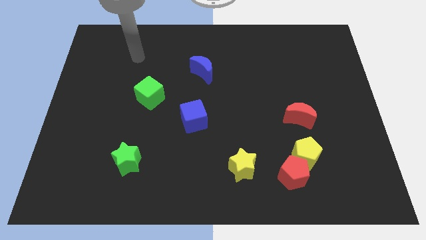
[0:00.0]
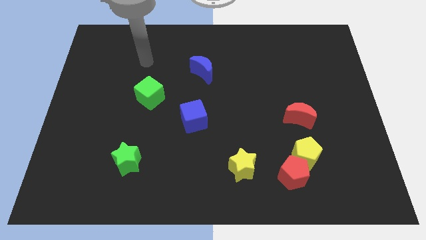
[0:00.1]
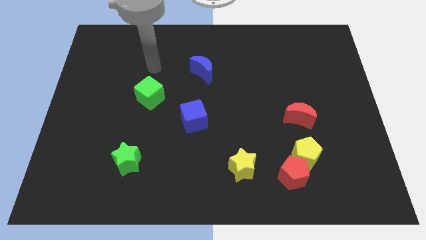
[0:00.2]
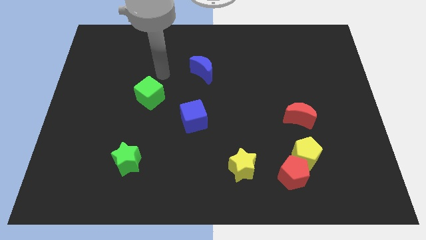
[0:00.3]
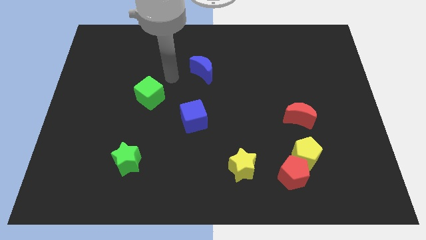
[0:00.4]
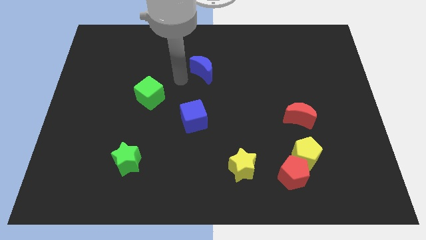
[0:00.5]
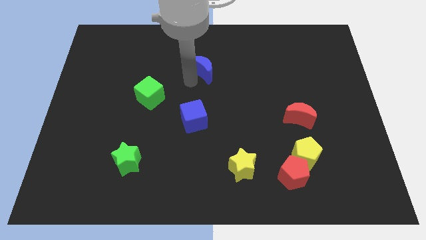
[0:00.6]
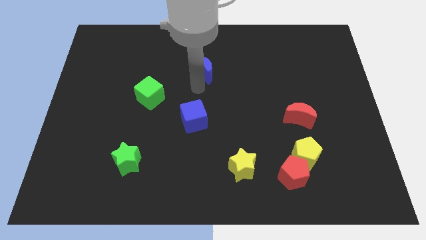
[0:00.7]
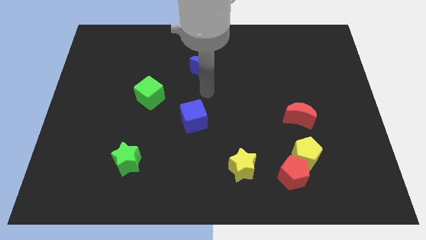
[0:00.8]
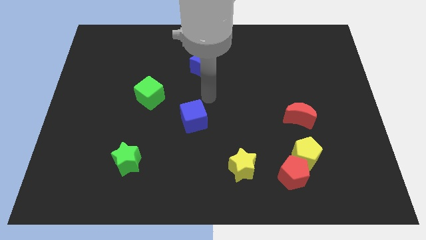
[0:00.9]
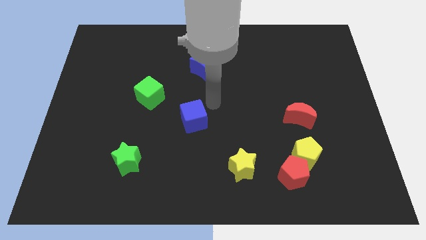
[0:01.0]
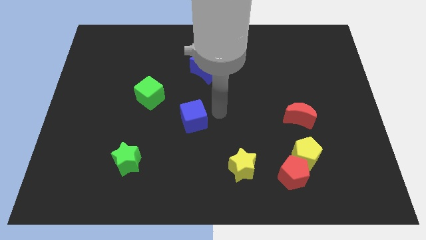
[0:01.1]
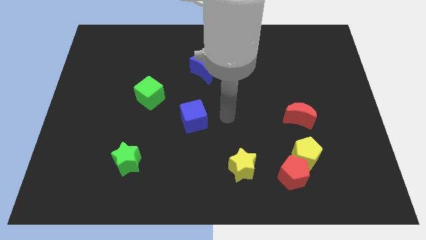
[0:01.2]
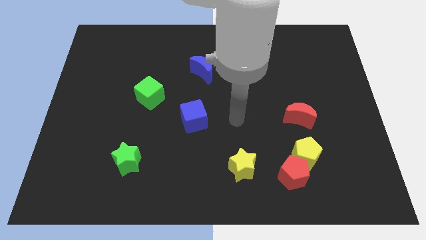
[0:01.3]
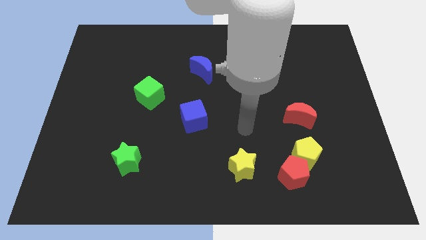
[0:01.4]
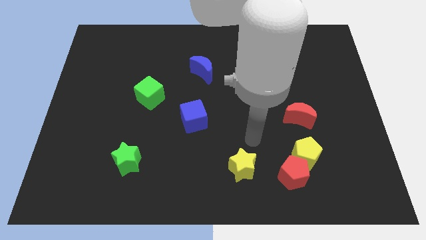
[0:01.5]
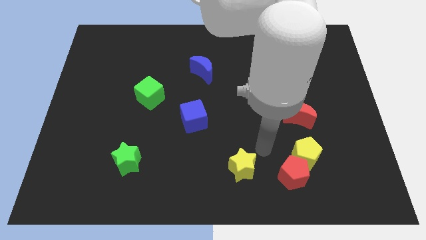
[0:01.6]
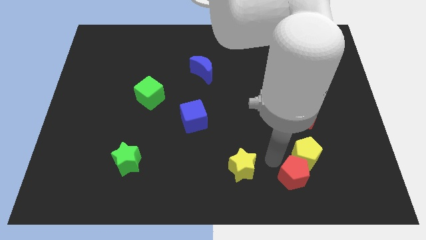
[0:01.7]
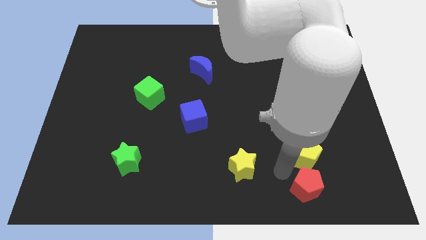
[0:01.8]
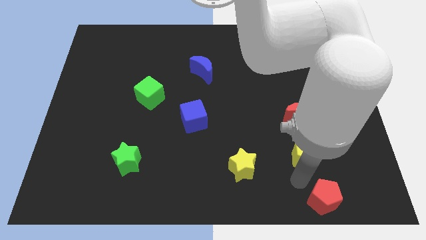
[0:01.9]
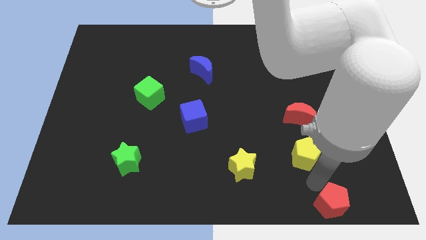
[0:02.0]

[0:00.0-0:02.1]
separate the yellow pentagon from the red pentagon

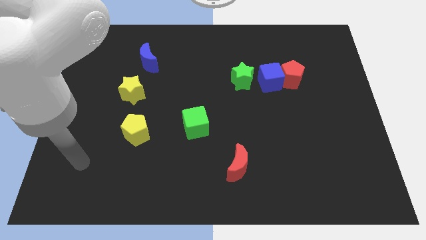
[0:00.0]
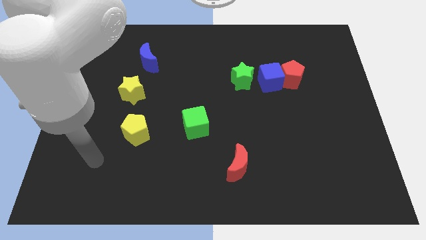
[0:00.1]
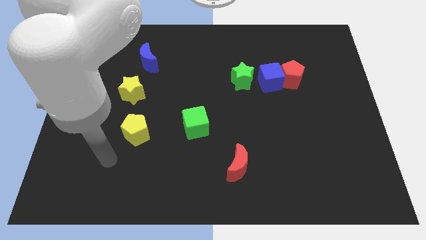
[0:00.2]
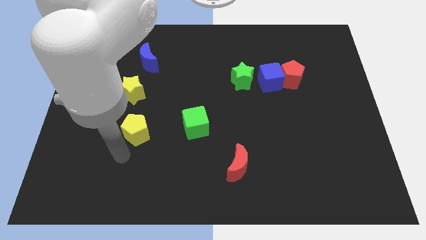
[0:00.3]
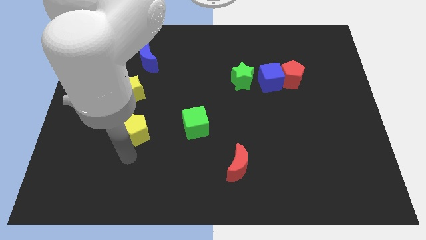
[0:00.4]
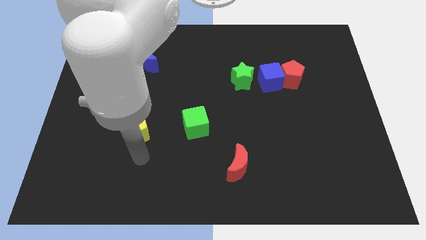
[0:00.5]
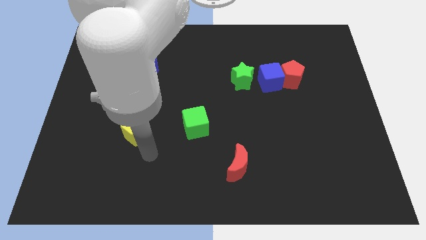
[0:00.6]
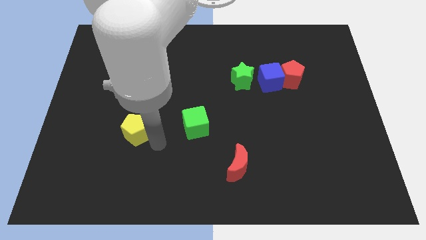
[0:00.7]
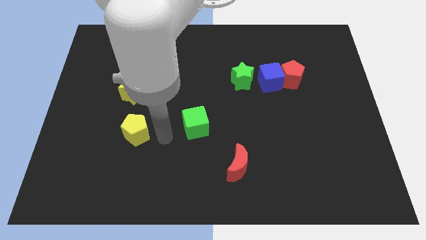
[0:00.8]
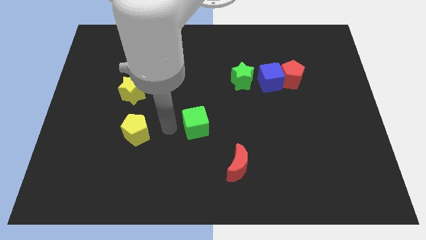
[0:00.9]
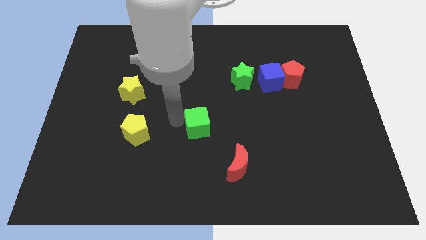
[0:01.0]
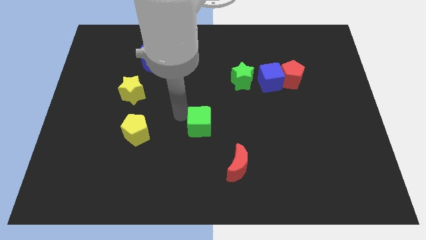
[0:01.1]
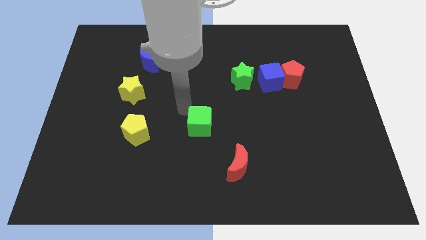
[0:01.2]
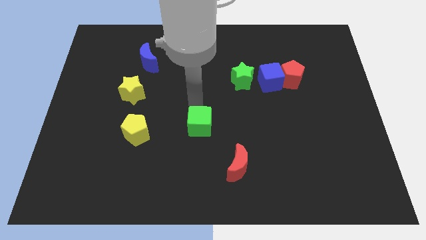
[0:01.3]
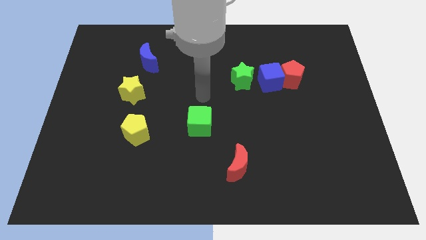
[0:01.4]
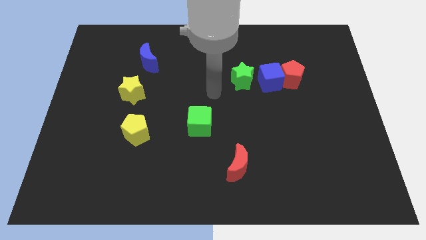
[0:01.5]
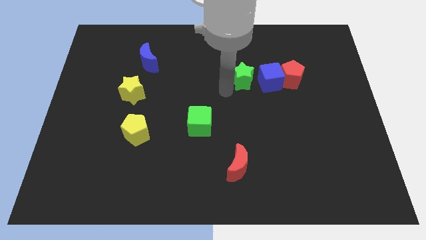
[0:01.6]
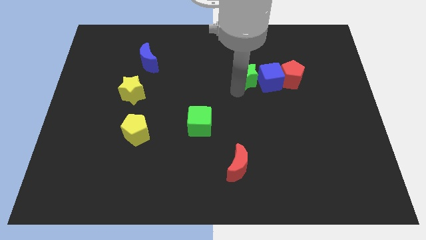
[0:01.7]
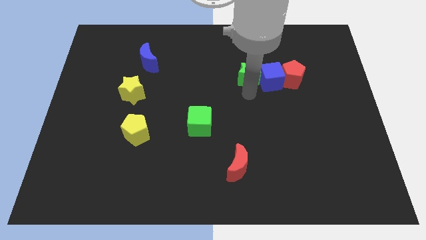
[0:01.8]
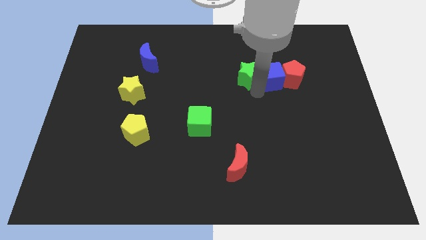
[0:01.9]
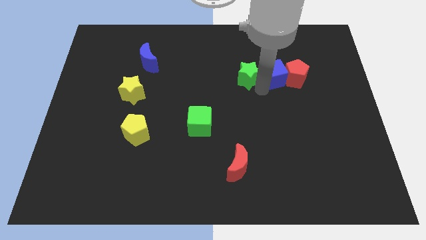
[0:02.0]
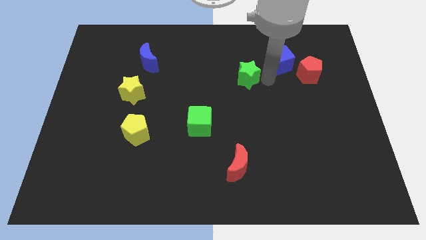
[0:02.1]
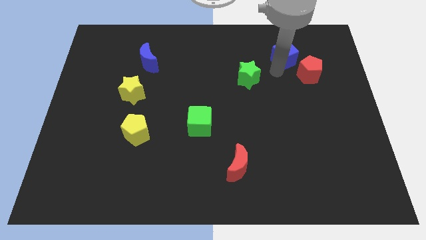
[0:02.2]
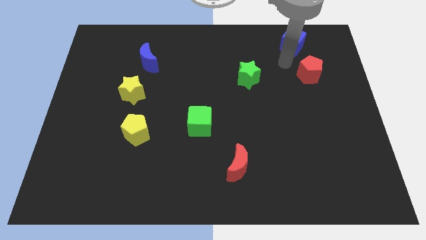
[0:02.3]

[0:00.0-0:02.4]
separate the red pentagon from the blue cube

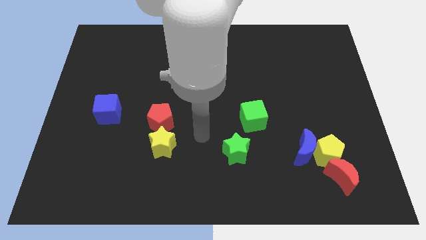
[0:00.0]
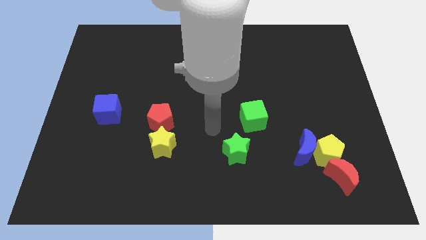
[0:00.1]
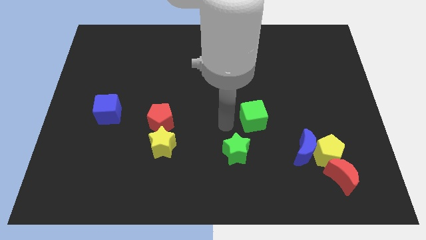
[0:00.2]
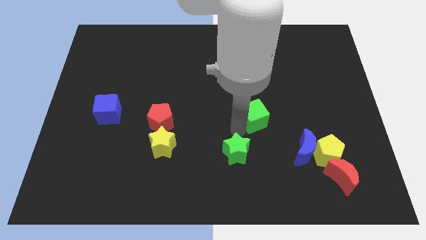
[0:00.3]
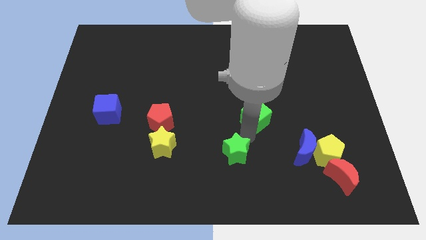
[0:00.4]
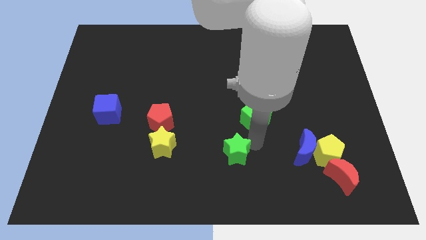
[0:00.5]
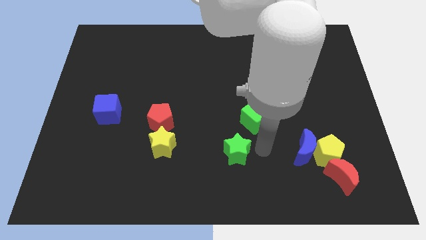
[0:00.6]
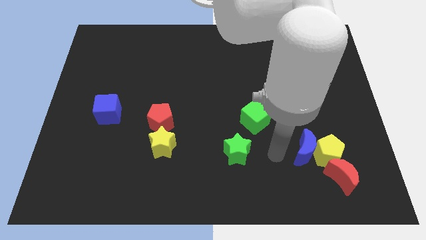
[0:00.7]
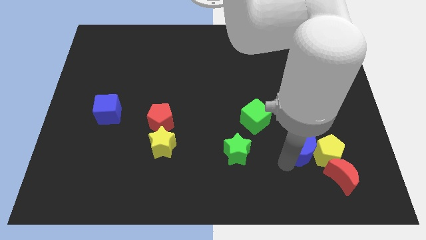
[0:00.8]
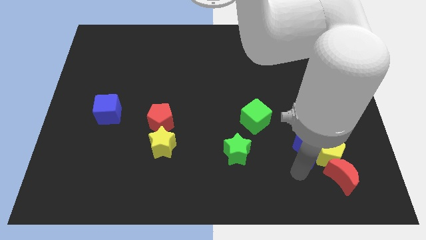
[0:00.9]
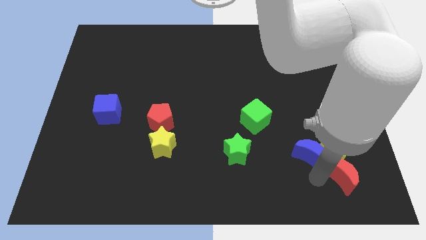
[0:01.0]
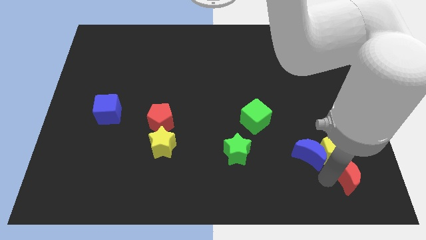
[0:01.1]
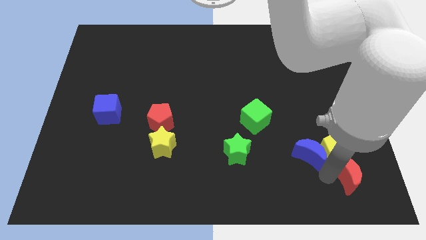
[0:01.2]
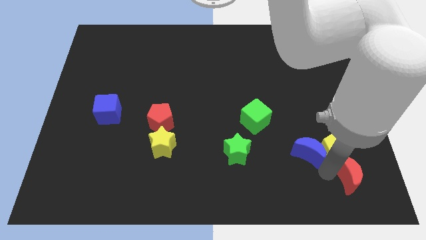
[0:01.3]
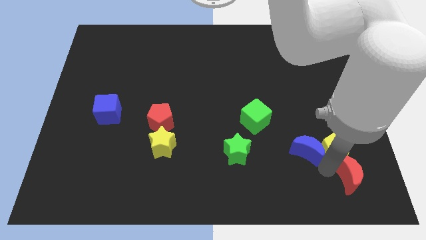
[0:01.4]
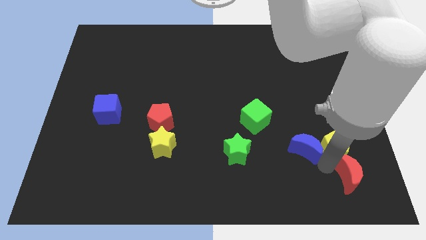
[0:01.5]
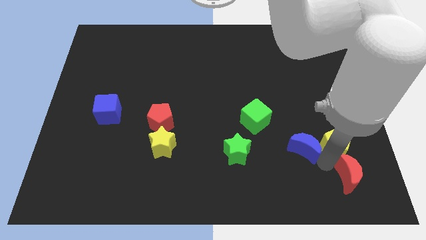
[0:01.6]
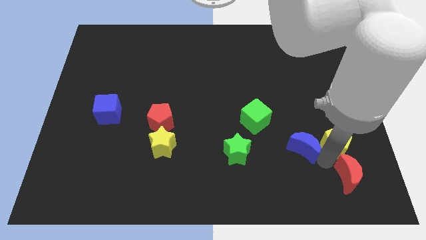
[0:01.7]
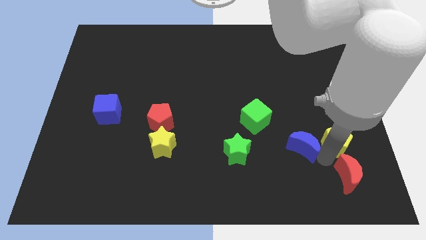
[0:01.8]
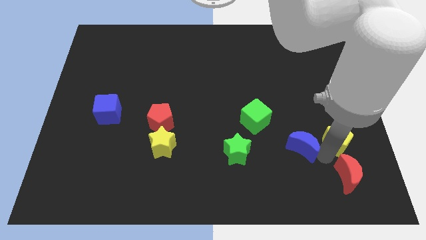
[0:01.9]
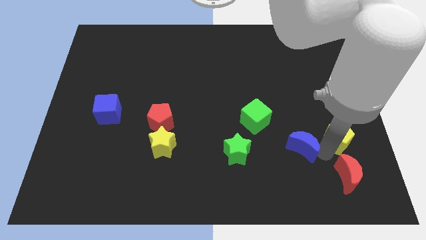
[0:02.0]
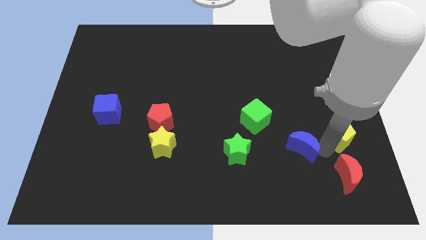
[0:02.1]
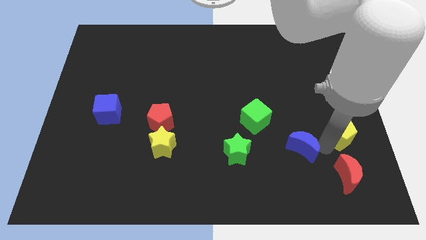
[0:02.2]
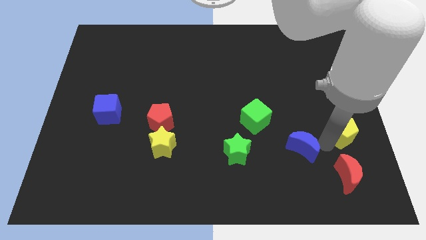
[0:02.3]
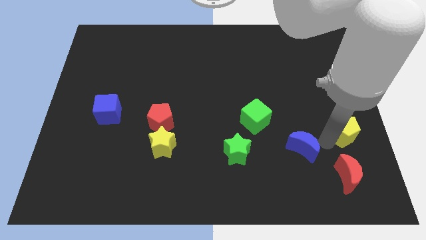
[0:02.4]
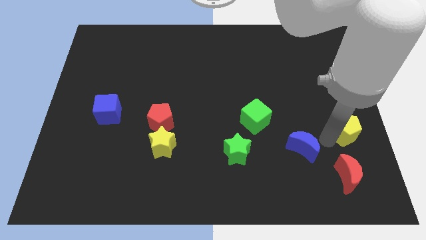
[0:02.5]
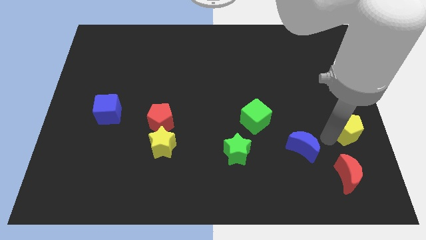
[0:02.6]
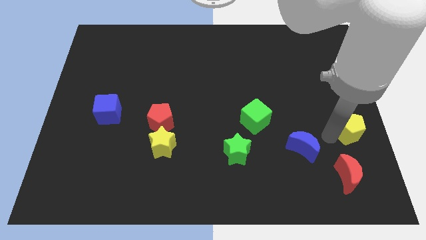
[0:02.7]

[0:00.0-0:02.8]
pull the yellow pentagon apart from the blue moon and red moon

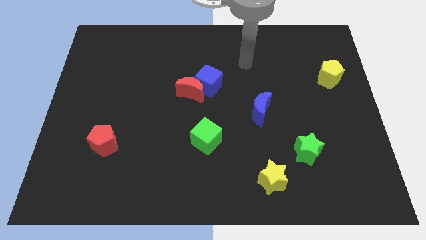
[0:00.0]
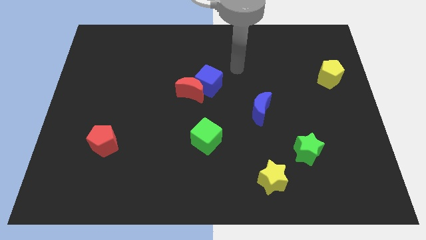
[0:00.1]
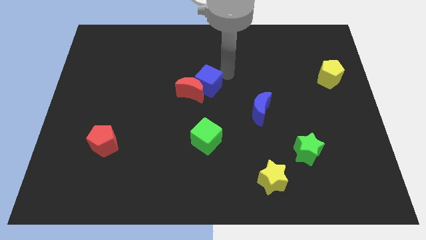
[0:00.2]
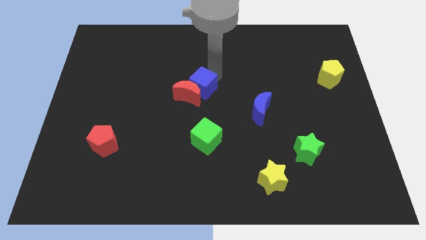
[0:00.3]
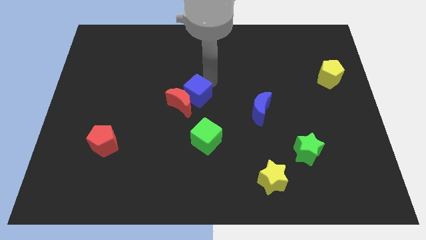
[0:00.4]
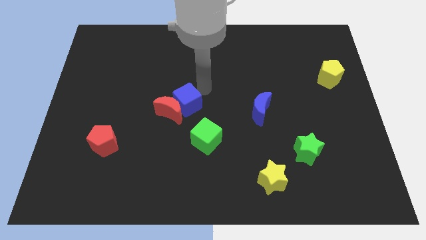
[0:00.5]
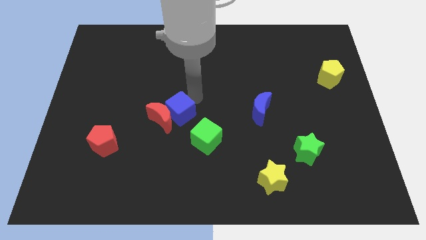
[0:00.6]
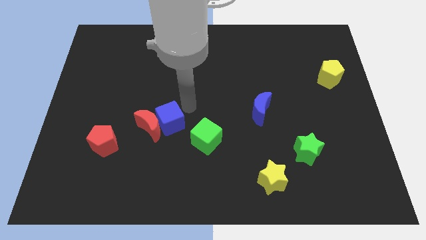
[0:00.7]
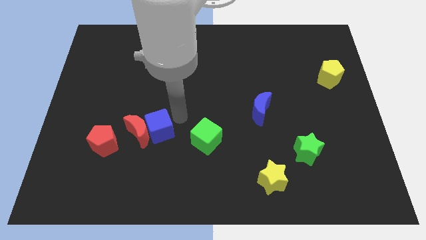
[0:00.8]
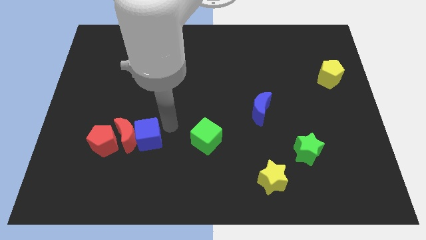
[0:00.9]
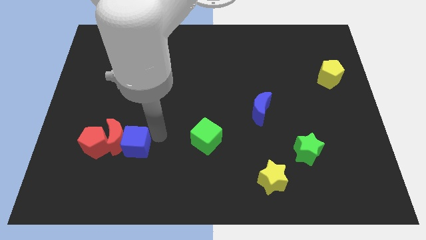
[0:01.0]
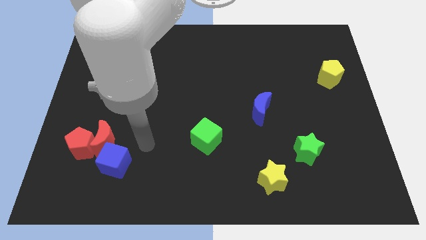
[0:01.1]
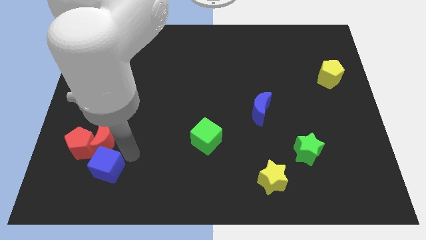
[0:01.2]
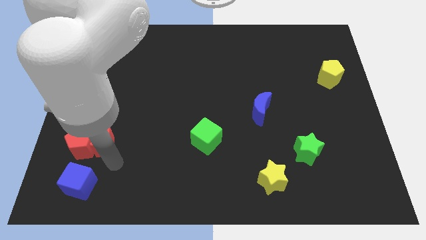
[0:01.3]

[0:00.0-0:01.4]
move the red moon away from the blue cube

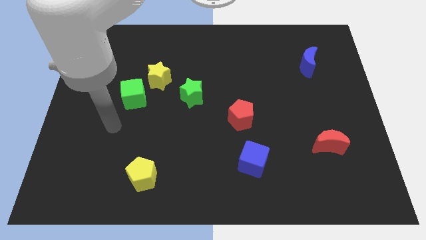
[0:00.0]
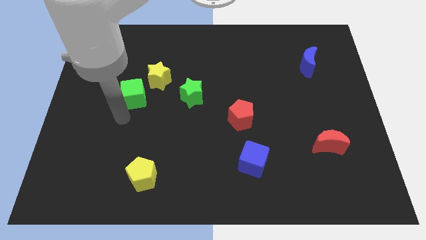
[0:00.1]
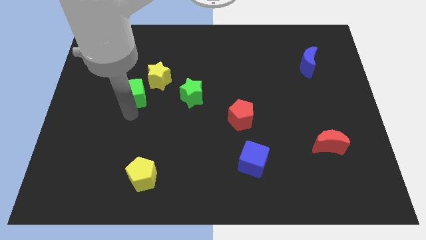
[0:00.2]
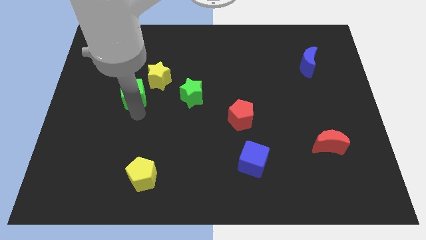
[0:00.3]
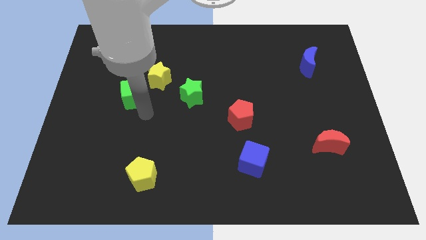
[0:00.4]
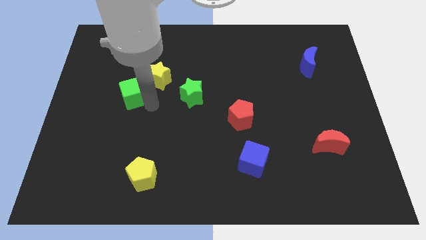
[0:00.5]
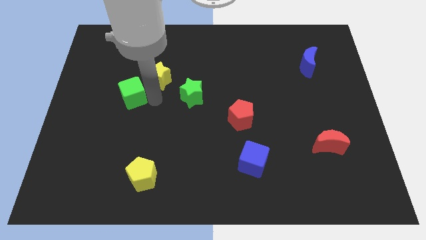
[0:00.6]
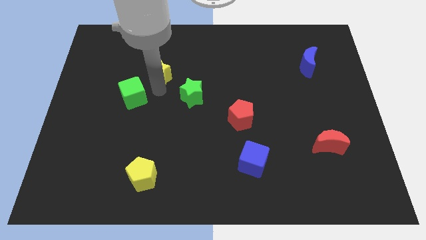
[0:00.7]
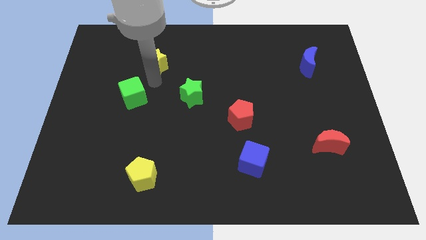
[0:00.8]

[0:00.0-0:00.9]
pull the green cube apart from the yellow star
